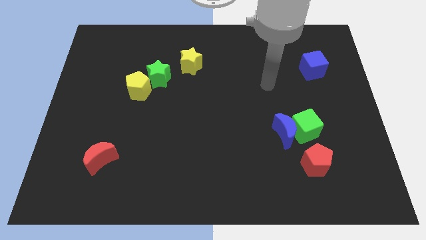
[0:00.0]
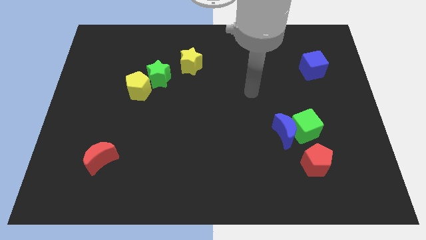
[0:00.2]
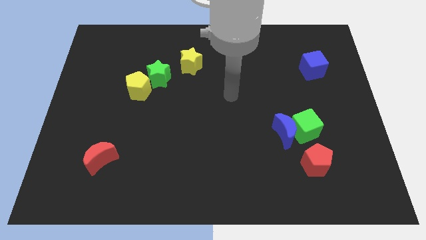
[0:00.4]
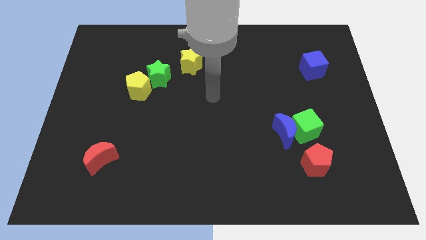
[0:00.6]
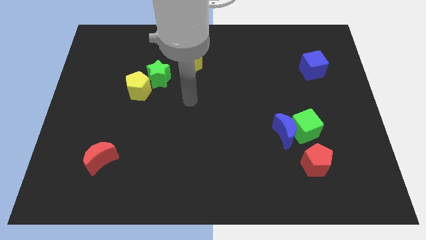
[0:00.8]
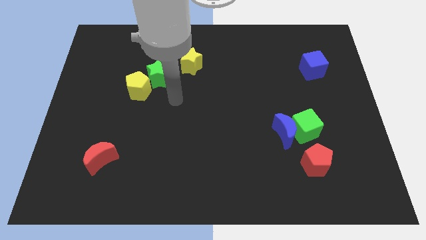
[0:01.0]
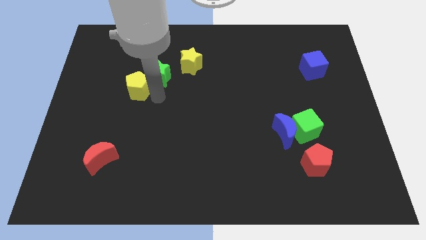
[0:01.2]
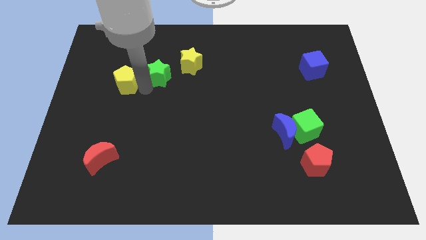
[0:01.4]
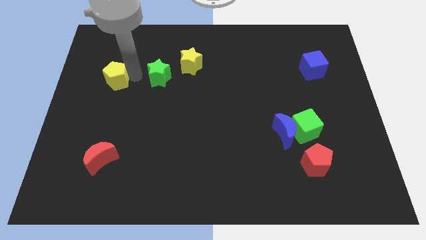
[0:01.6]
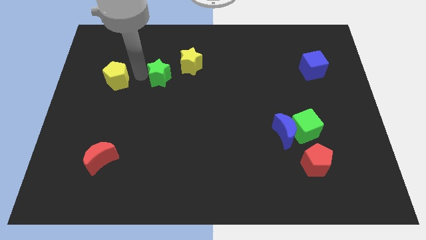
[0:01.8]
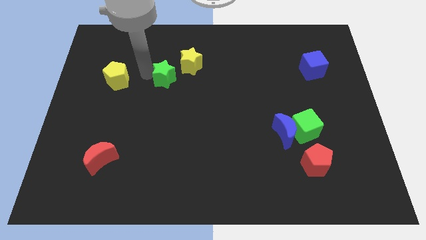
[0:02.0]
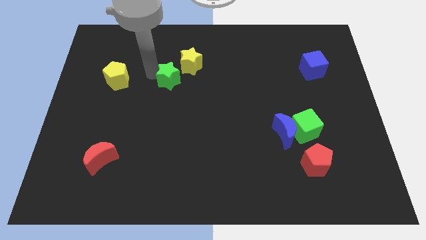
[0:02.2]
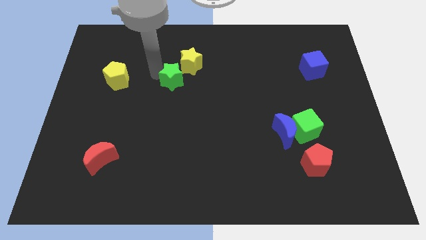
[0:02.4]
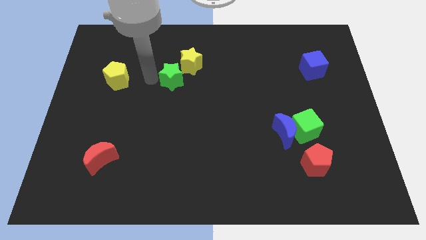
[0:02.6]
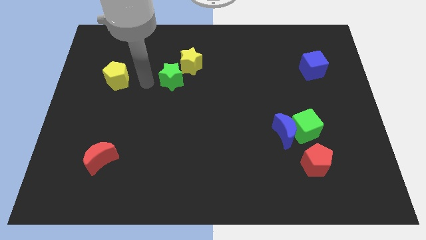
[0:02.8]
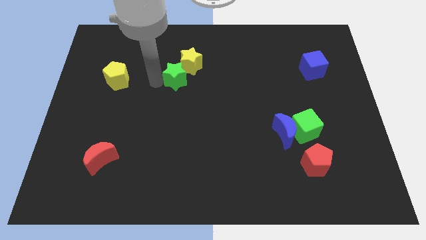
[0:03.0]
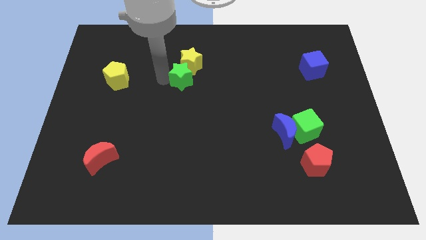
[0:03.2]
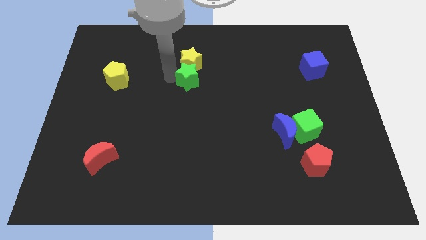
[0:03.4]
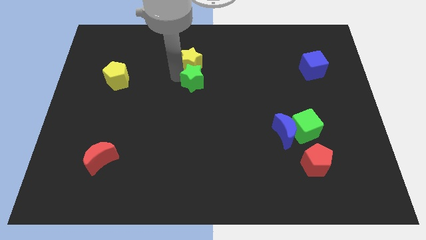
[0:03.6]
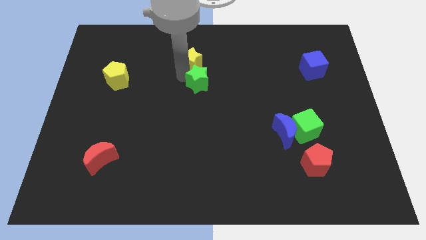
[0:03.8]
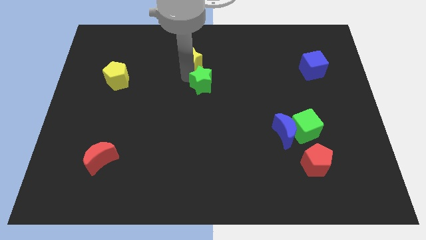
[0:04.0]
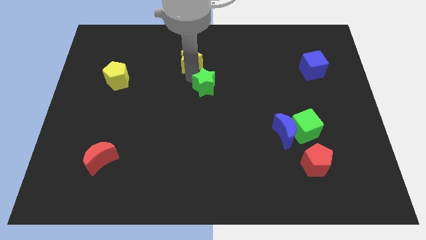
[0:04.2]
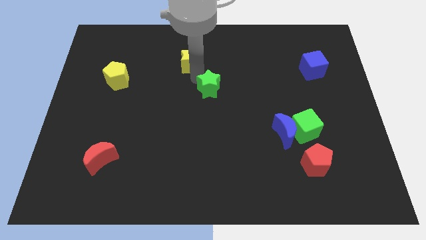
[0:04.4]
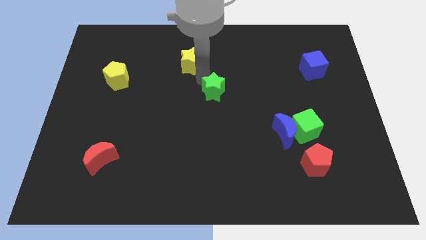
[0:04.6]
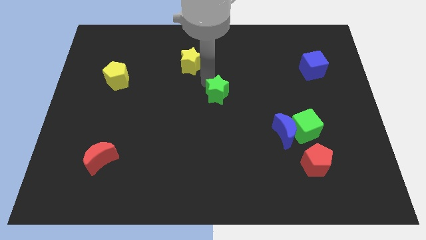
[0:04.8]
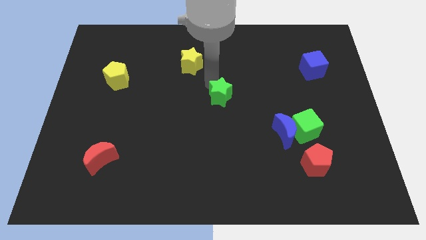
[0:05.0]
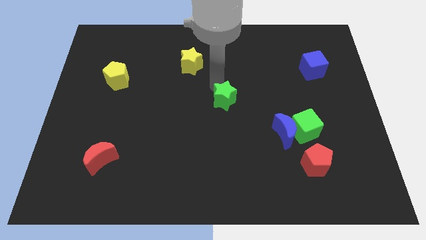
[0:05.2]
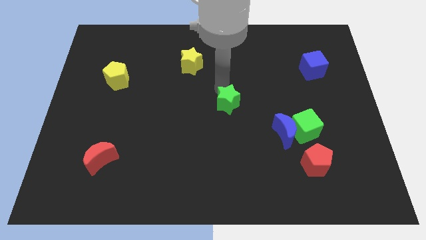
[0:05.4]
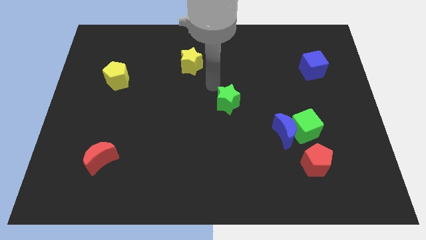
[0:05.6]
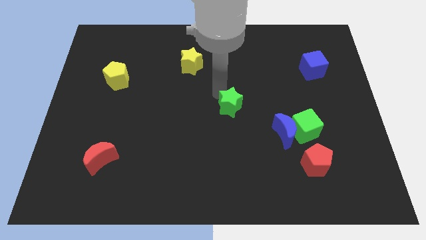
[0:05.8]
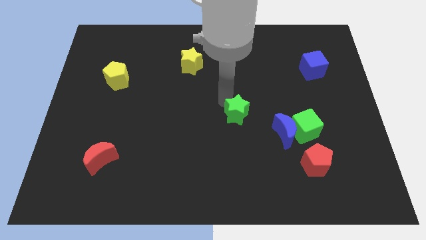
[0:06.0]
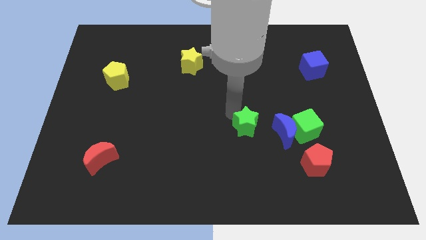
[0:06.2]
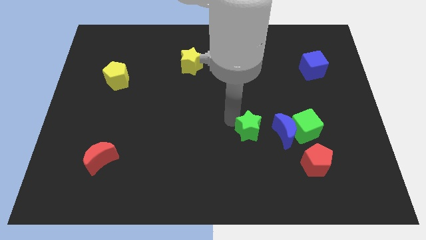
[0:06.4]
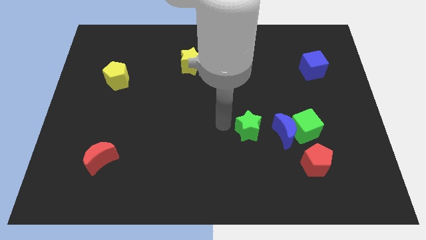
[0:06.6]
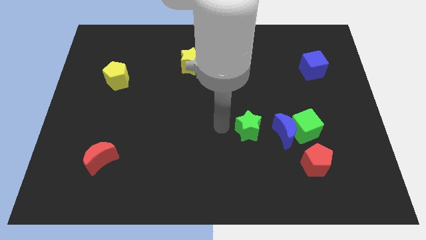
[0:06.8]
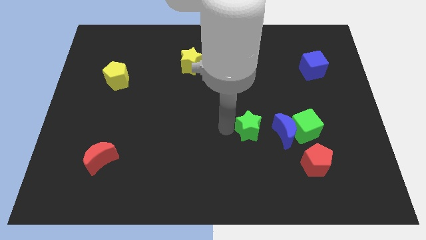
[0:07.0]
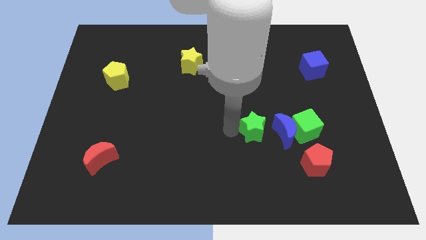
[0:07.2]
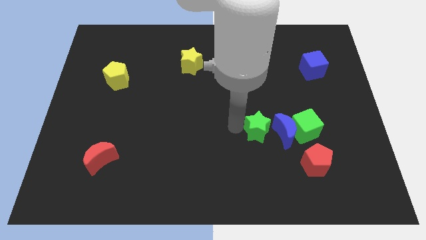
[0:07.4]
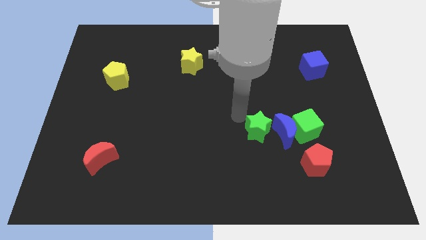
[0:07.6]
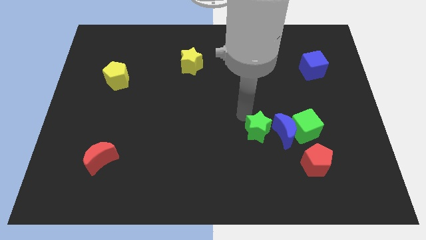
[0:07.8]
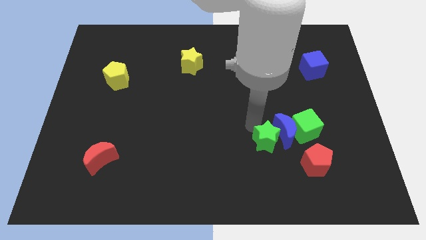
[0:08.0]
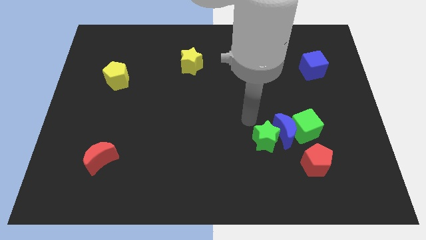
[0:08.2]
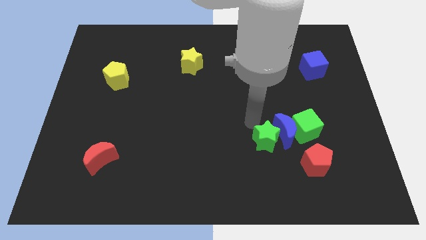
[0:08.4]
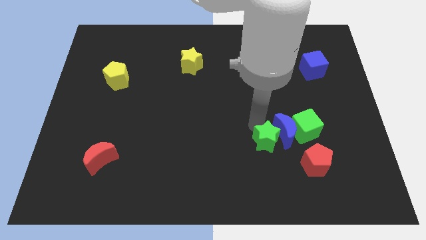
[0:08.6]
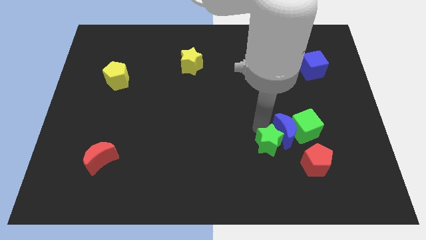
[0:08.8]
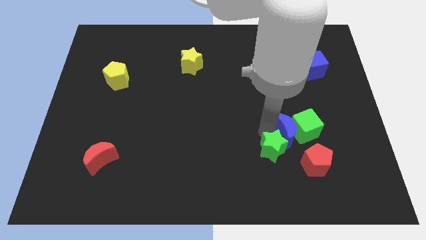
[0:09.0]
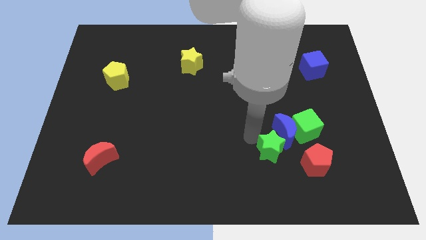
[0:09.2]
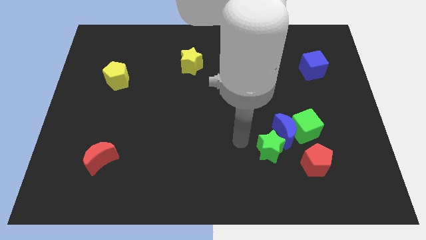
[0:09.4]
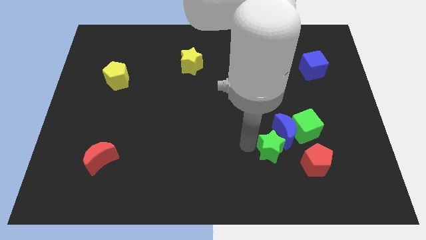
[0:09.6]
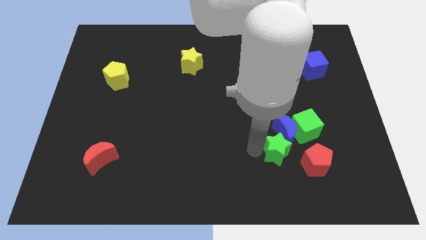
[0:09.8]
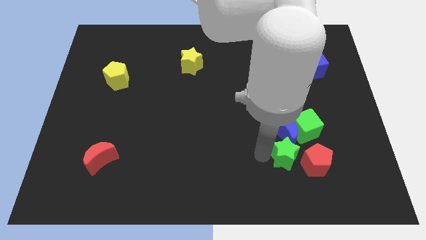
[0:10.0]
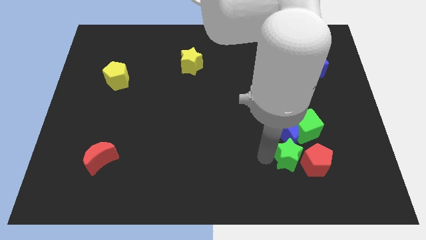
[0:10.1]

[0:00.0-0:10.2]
put the green star next to the red pentagon

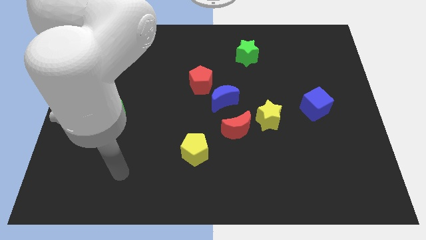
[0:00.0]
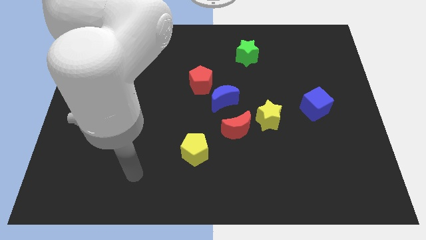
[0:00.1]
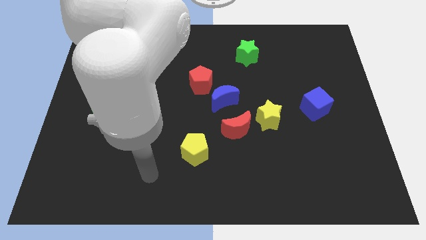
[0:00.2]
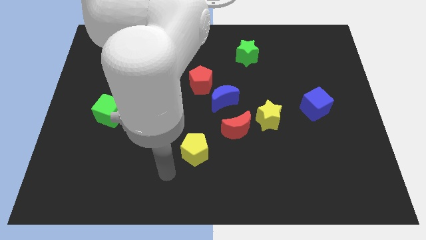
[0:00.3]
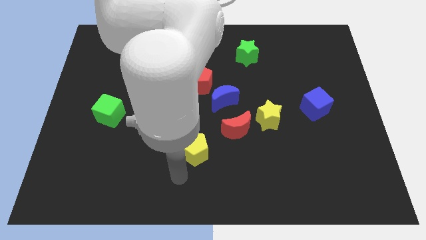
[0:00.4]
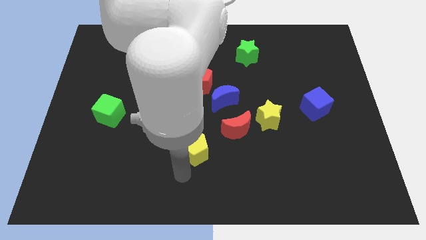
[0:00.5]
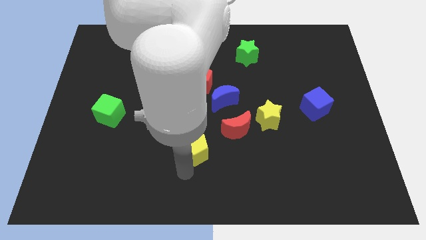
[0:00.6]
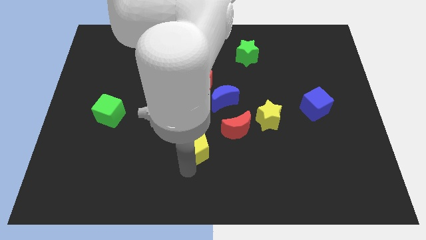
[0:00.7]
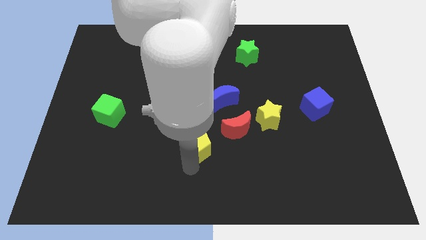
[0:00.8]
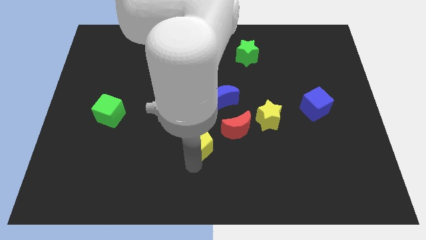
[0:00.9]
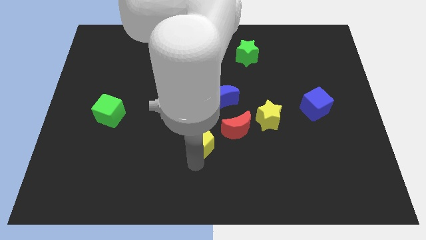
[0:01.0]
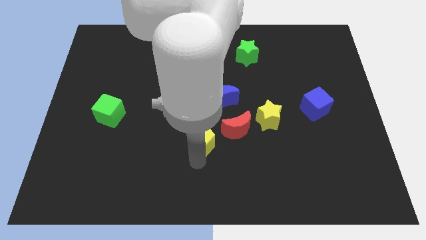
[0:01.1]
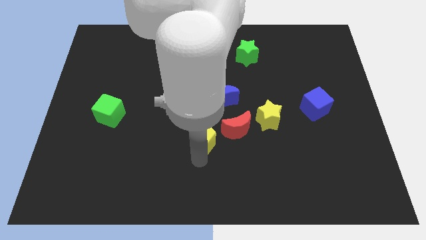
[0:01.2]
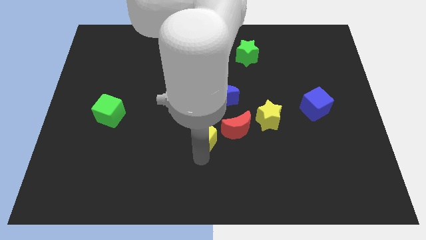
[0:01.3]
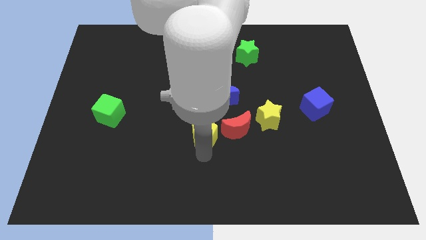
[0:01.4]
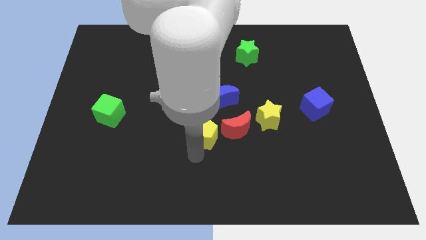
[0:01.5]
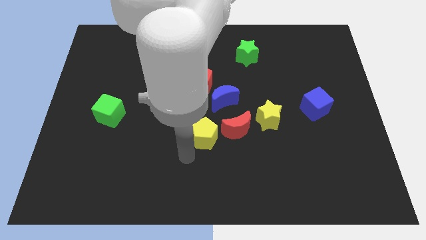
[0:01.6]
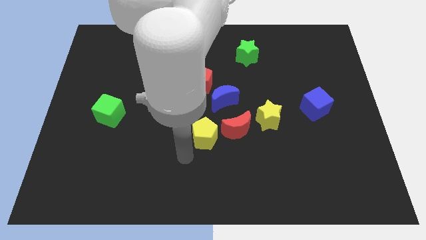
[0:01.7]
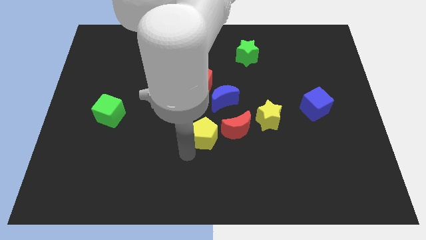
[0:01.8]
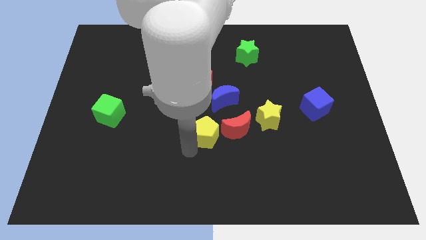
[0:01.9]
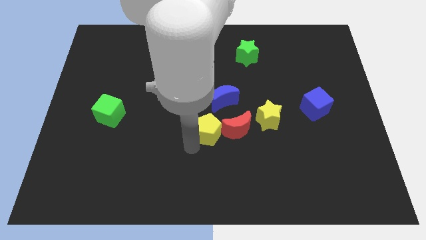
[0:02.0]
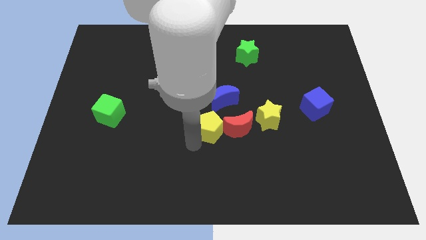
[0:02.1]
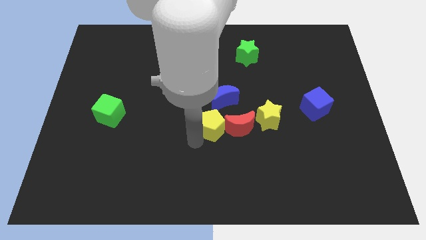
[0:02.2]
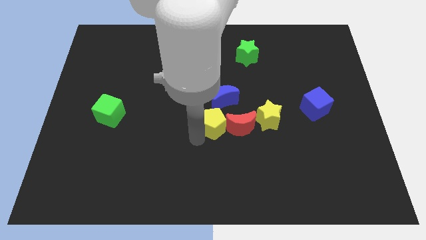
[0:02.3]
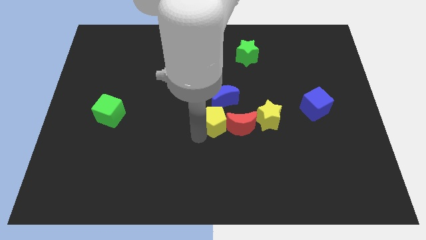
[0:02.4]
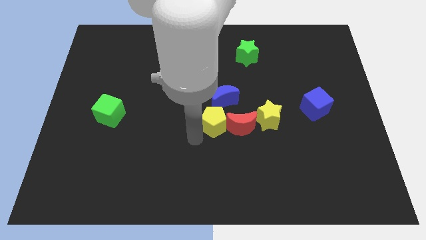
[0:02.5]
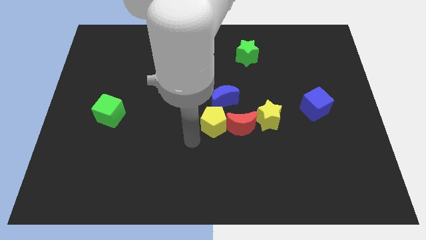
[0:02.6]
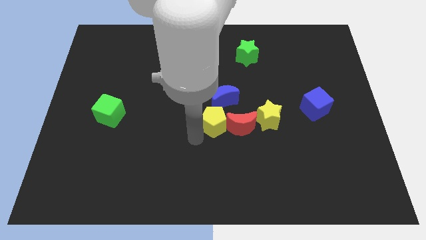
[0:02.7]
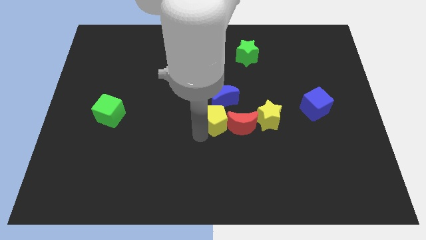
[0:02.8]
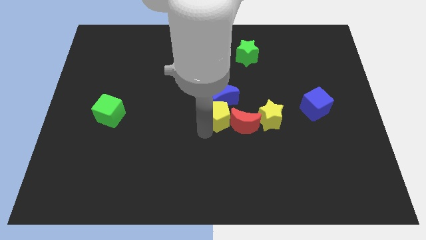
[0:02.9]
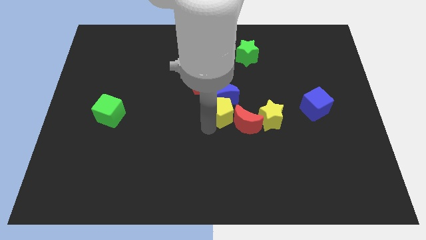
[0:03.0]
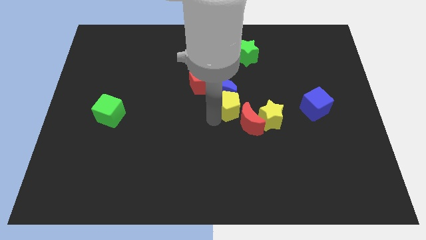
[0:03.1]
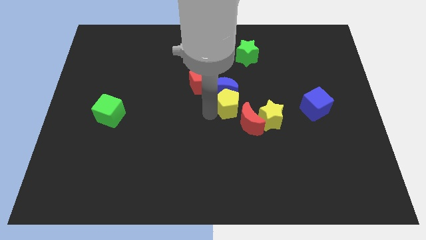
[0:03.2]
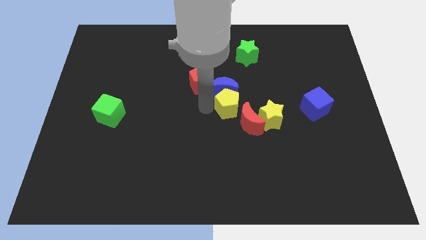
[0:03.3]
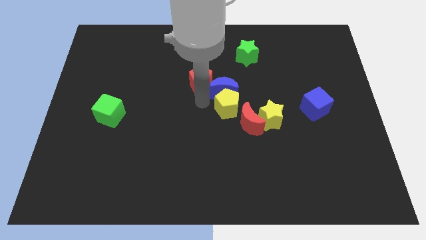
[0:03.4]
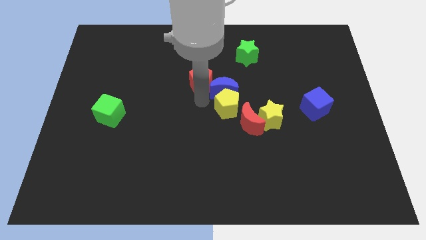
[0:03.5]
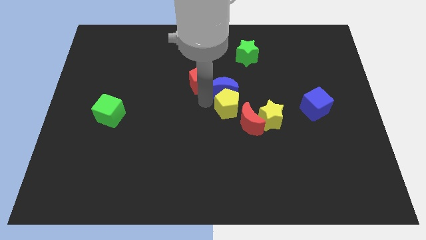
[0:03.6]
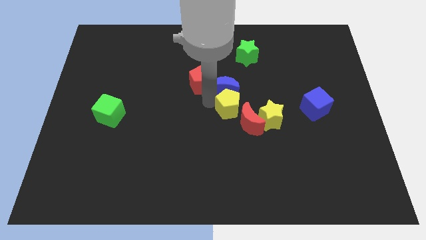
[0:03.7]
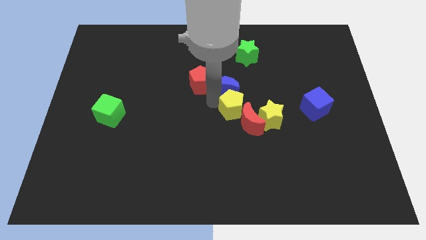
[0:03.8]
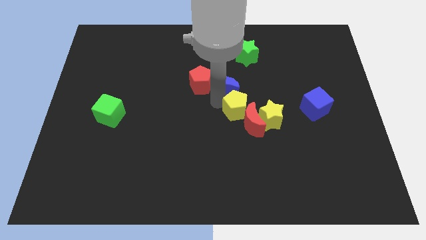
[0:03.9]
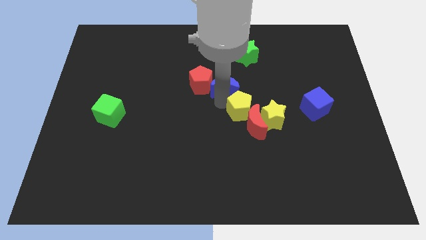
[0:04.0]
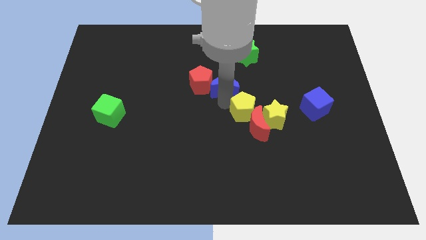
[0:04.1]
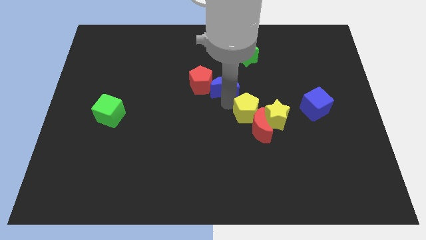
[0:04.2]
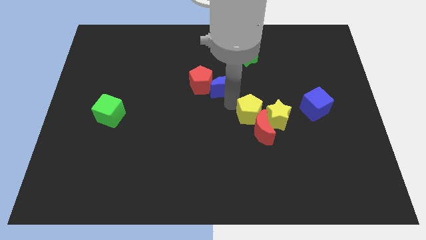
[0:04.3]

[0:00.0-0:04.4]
push the yellow pentagon close to the yellow star
